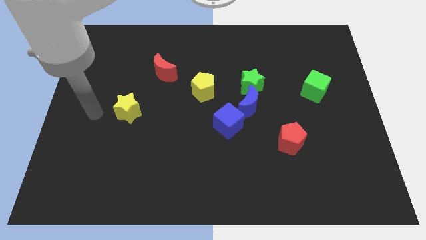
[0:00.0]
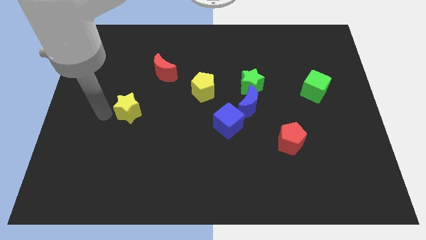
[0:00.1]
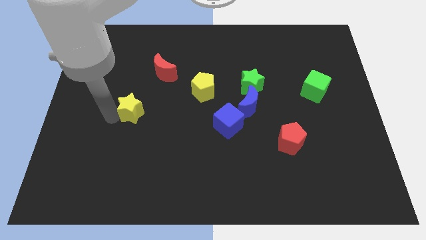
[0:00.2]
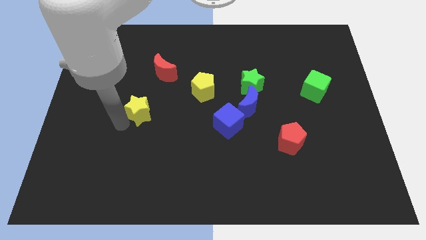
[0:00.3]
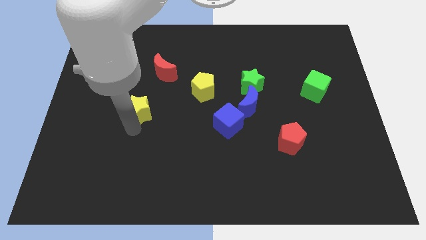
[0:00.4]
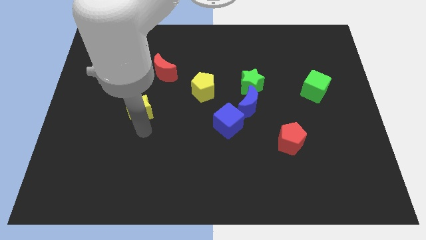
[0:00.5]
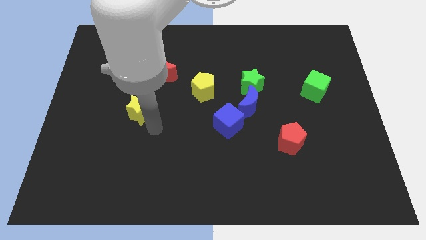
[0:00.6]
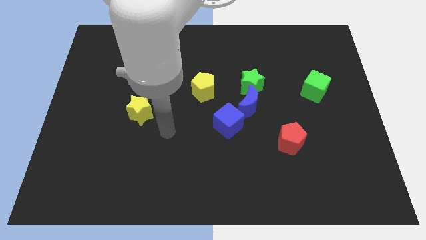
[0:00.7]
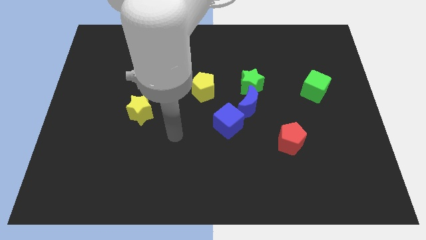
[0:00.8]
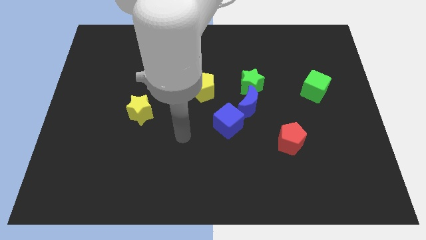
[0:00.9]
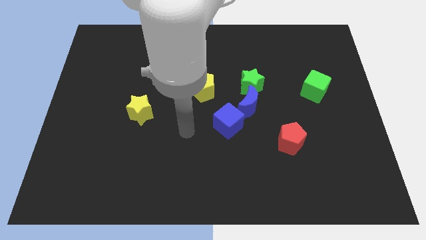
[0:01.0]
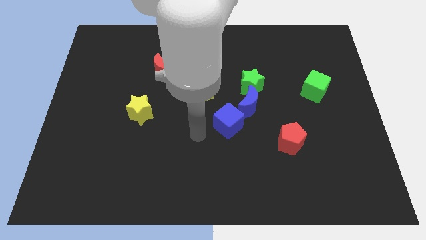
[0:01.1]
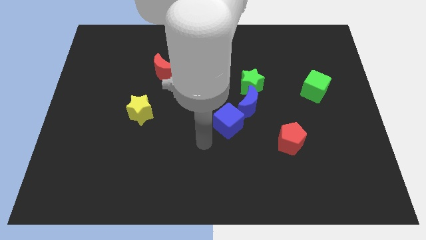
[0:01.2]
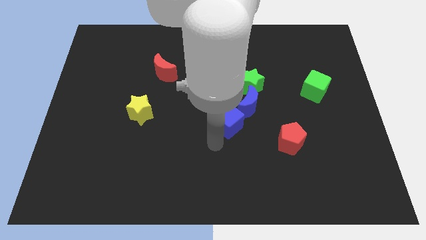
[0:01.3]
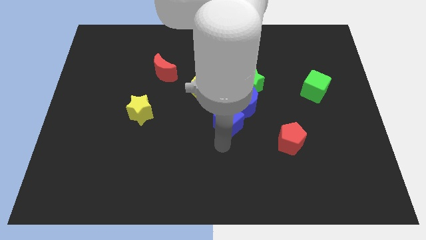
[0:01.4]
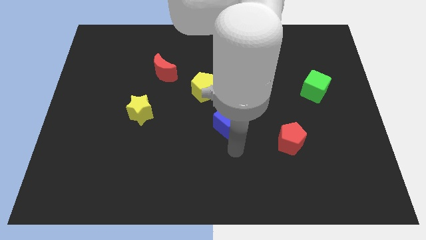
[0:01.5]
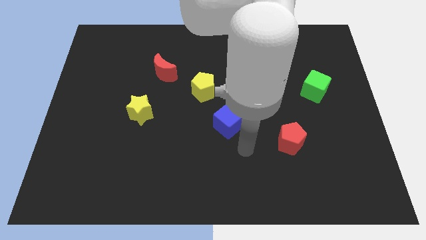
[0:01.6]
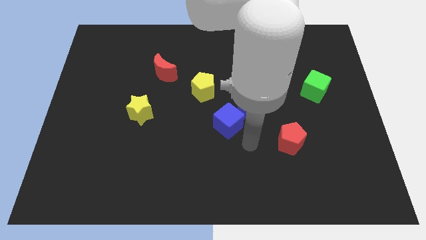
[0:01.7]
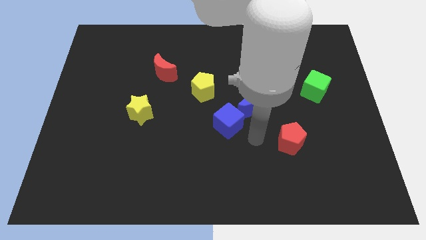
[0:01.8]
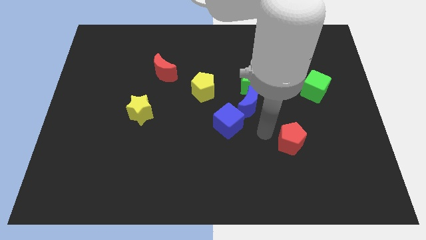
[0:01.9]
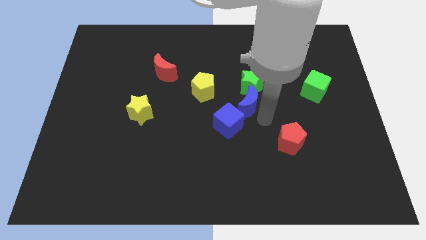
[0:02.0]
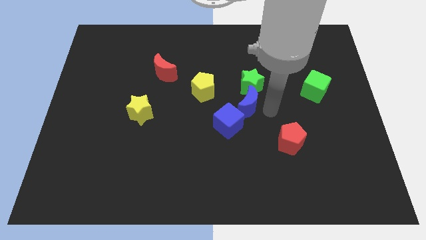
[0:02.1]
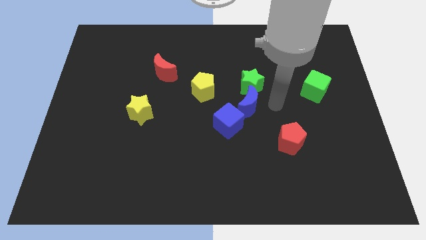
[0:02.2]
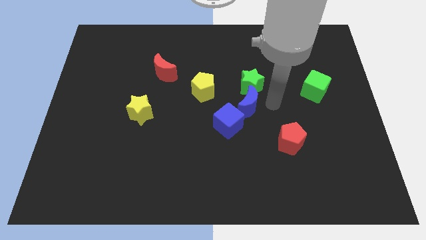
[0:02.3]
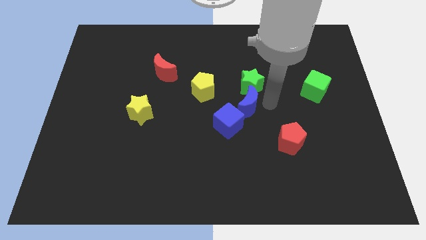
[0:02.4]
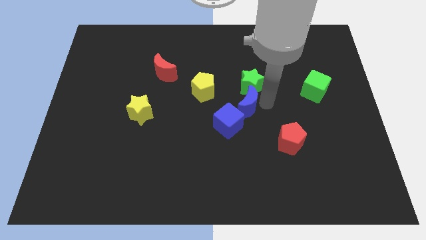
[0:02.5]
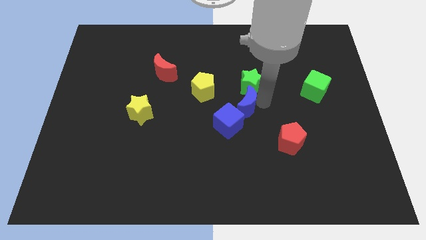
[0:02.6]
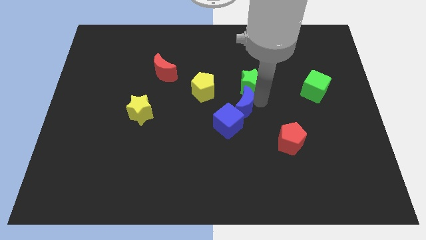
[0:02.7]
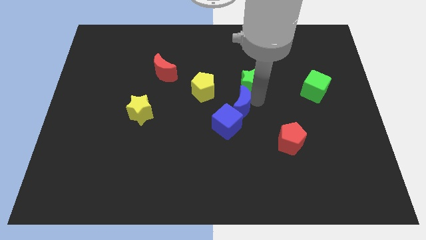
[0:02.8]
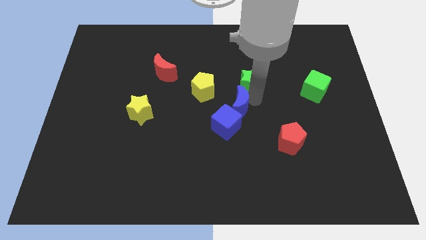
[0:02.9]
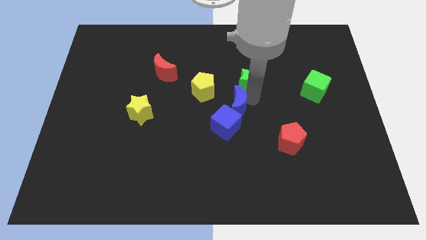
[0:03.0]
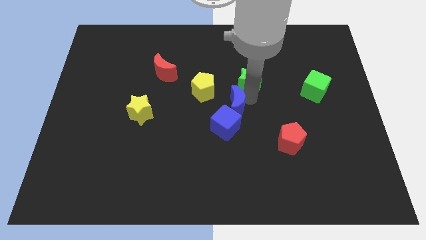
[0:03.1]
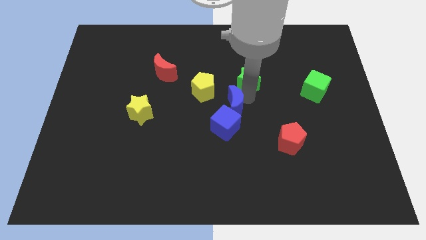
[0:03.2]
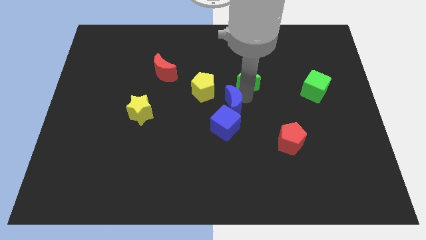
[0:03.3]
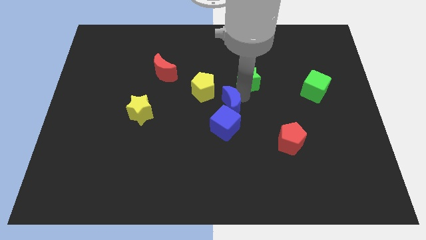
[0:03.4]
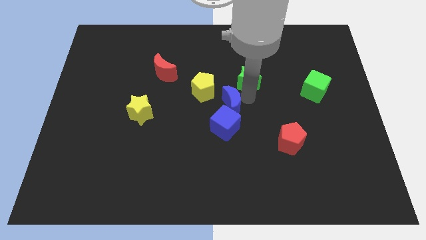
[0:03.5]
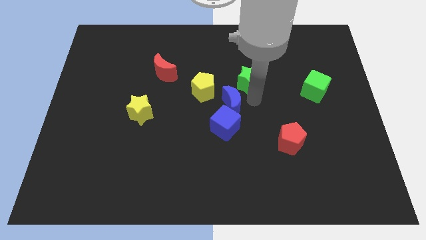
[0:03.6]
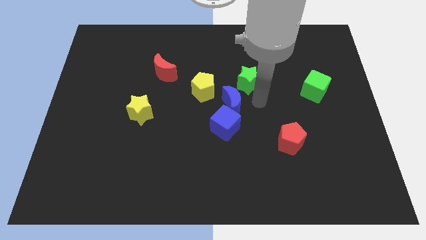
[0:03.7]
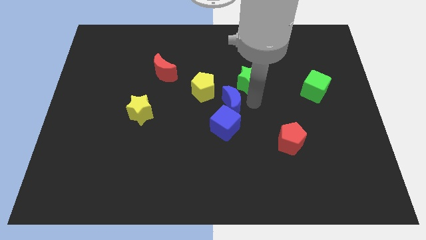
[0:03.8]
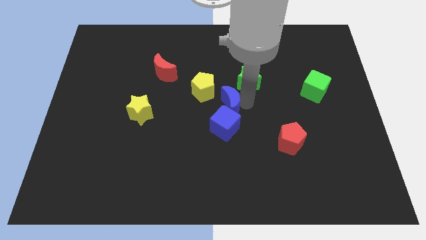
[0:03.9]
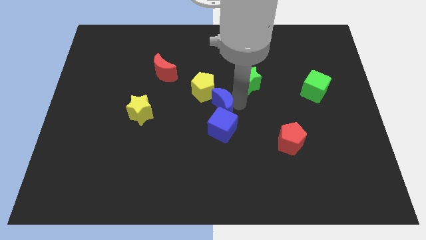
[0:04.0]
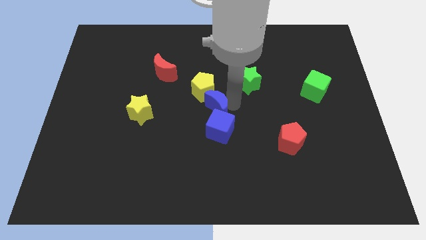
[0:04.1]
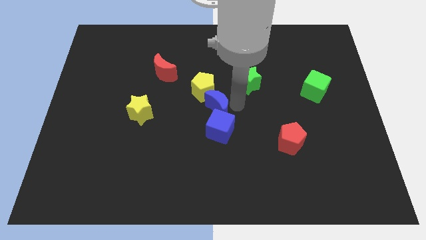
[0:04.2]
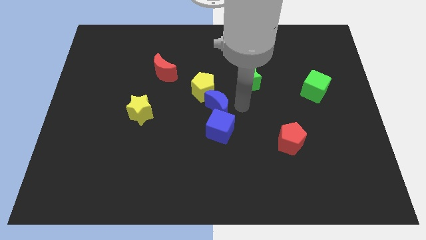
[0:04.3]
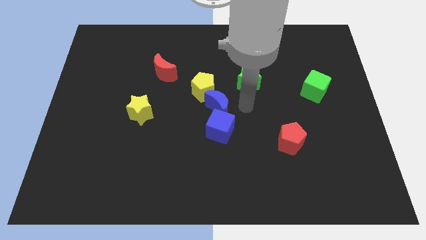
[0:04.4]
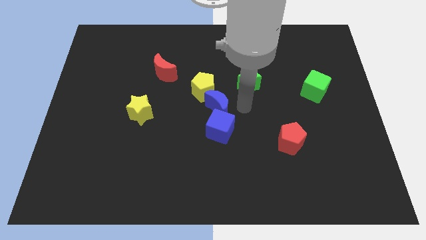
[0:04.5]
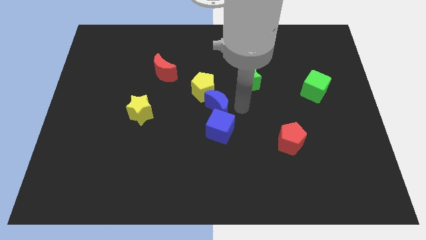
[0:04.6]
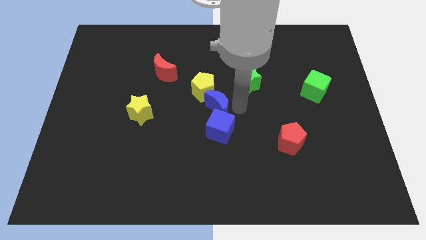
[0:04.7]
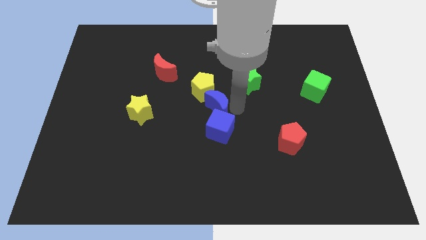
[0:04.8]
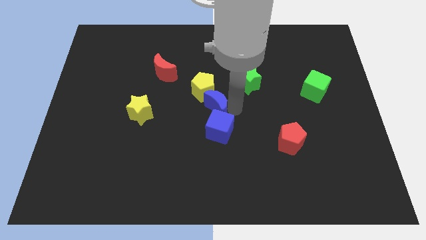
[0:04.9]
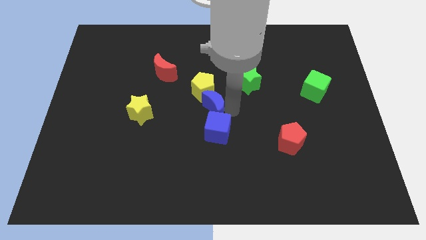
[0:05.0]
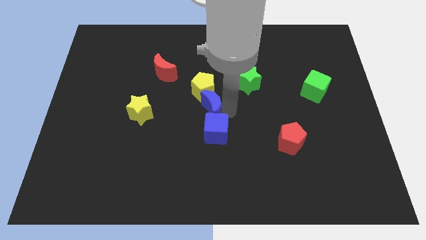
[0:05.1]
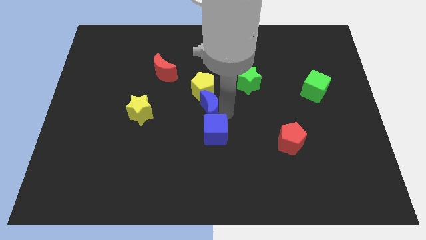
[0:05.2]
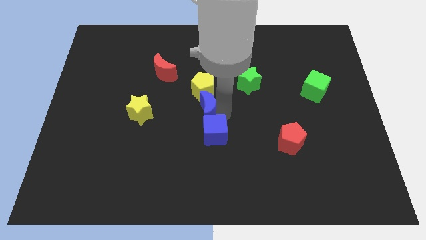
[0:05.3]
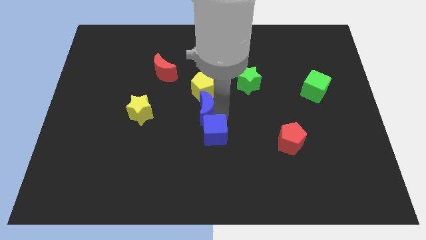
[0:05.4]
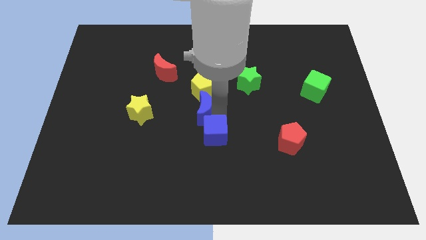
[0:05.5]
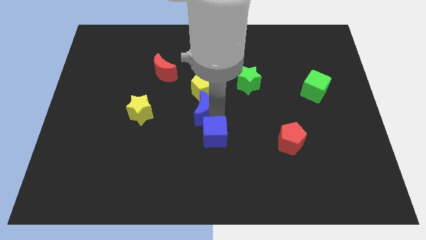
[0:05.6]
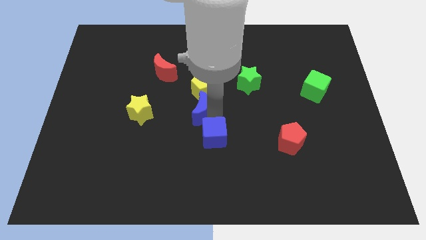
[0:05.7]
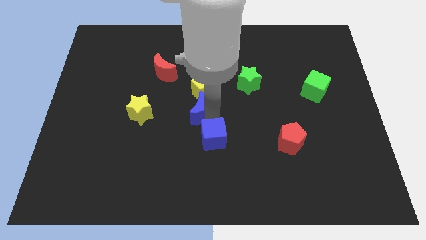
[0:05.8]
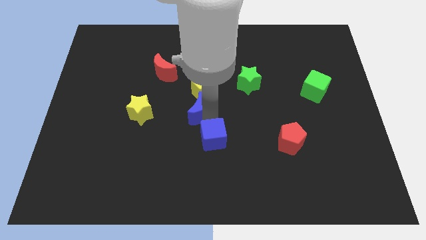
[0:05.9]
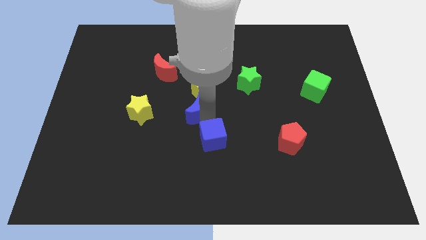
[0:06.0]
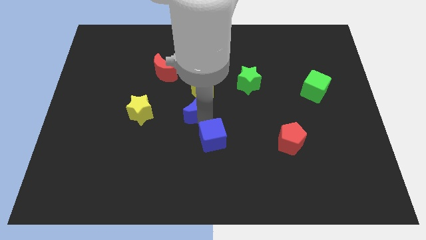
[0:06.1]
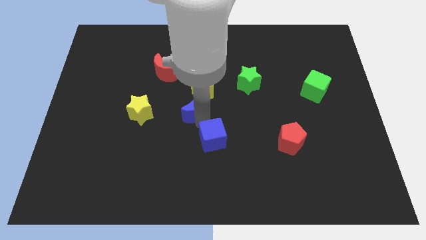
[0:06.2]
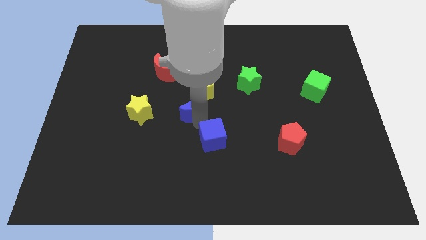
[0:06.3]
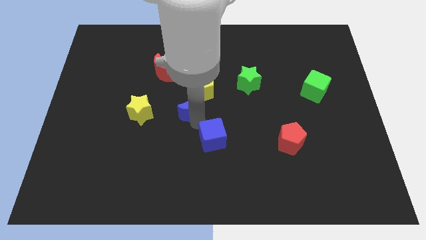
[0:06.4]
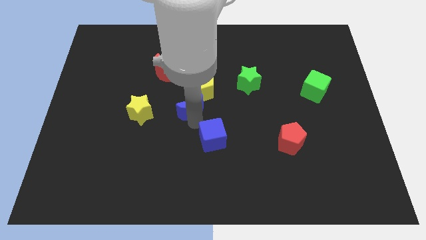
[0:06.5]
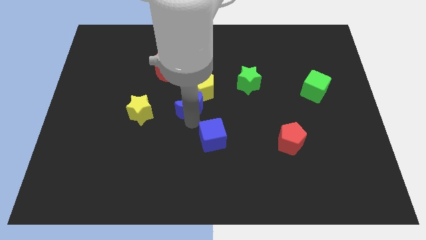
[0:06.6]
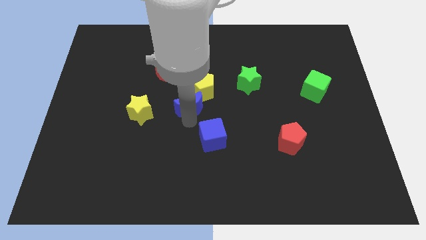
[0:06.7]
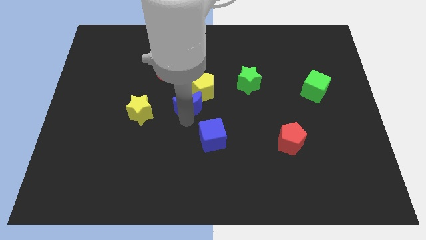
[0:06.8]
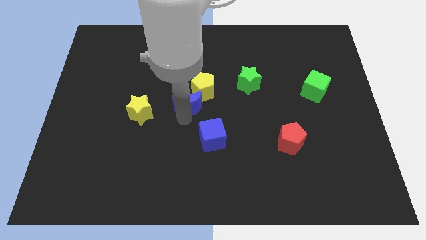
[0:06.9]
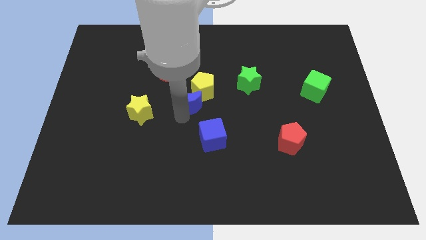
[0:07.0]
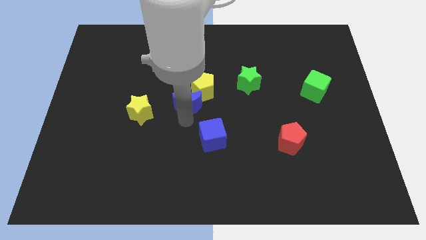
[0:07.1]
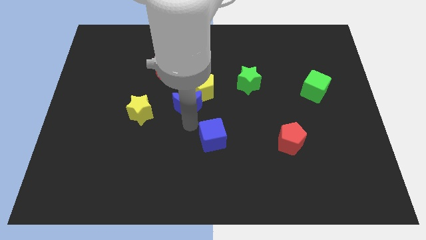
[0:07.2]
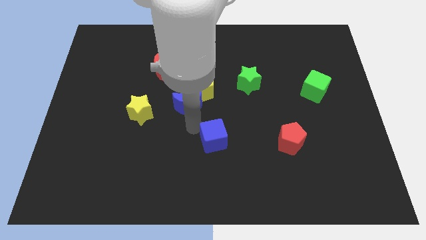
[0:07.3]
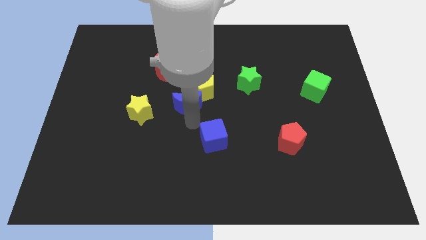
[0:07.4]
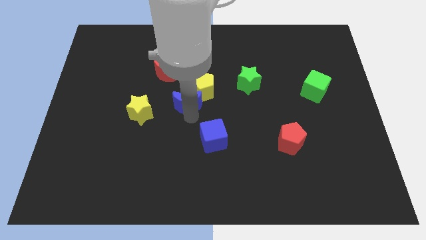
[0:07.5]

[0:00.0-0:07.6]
move the blue moon to the bottom right side of the red moon

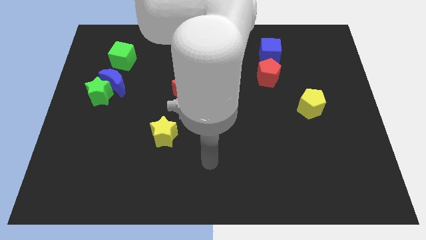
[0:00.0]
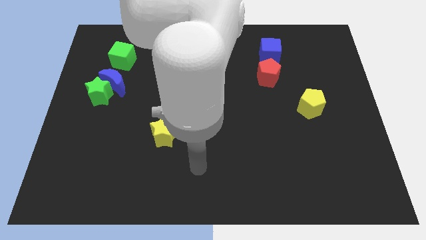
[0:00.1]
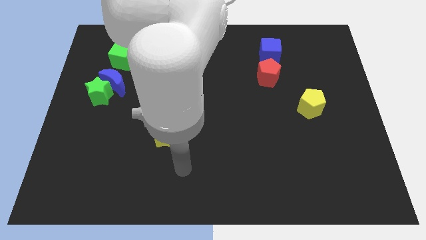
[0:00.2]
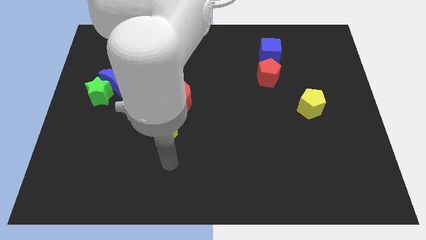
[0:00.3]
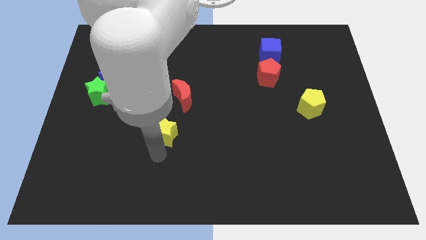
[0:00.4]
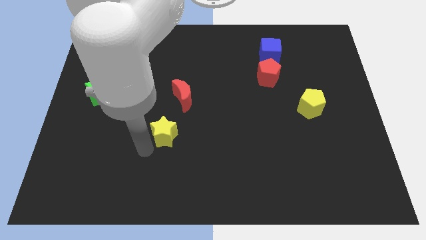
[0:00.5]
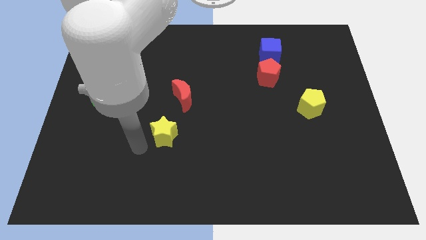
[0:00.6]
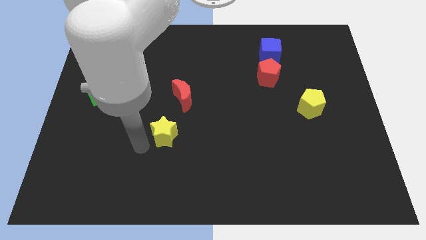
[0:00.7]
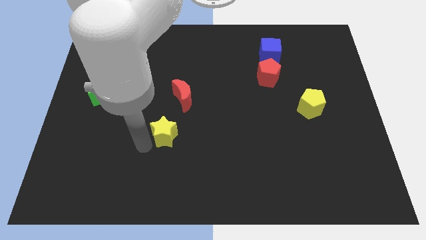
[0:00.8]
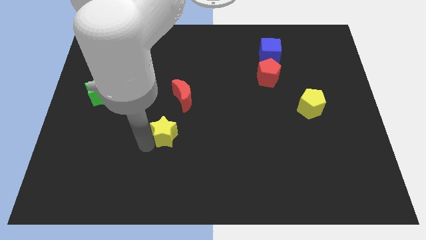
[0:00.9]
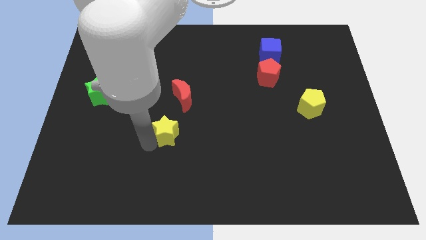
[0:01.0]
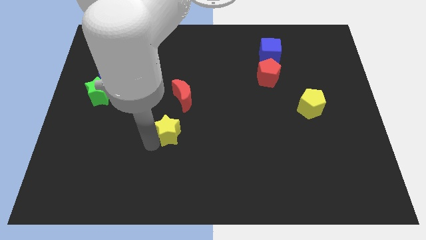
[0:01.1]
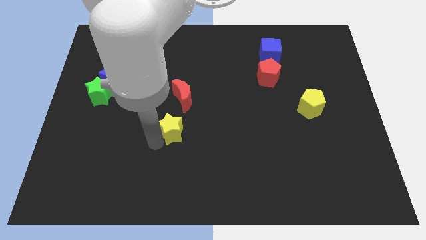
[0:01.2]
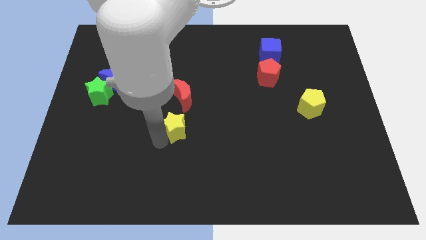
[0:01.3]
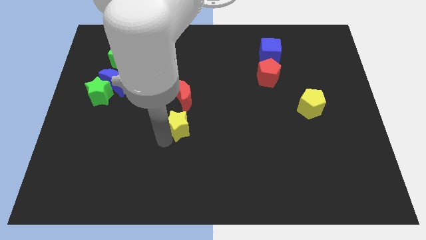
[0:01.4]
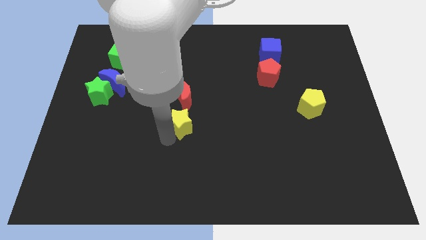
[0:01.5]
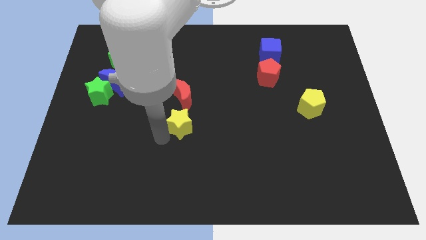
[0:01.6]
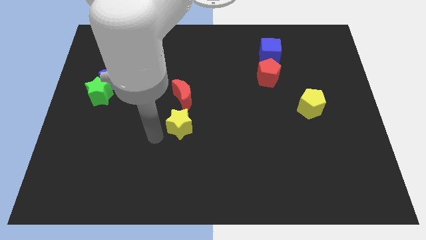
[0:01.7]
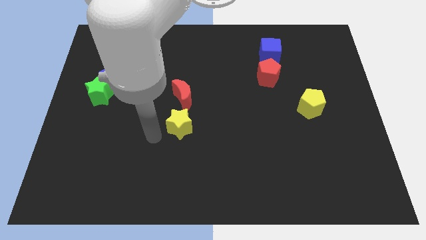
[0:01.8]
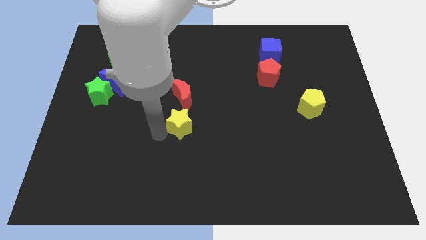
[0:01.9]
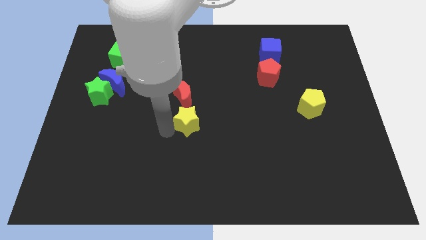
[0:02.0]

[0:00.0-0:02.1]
slide the yellow star to the bottom right of the red moon
